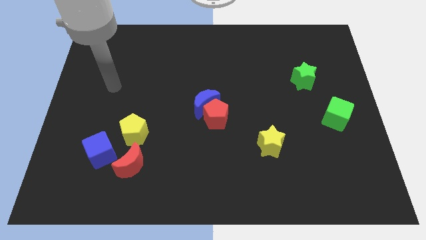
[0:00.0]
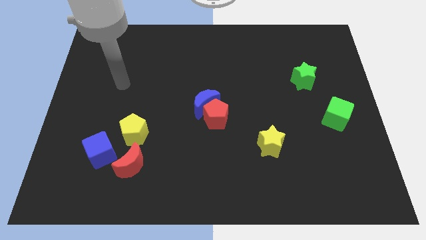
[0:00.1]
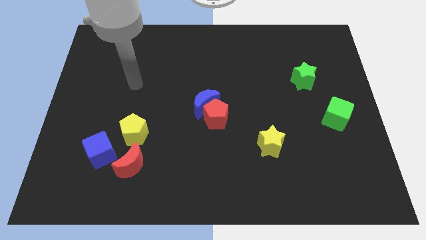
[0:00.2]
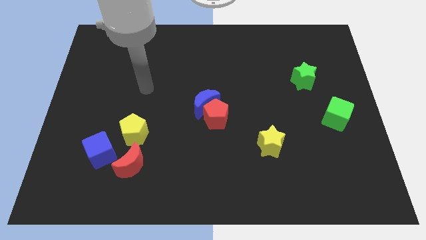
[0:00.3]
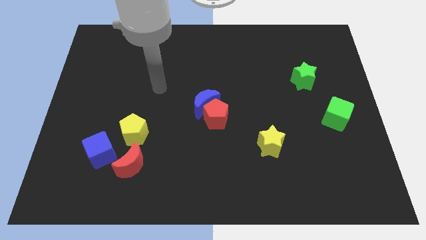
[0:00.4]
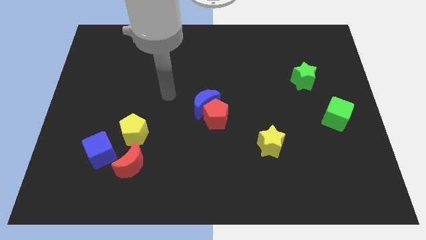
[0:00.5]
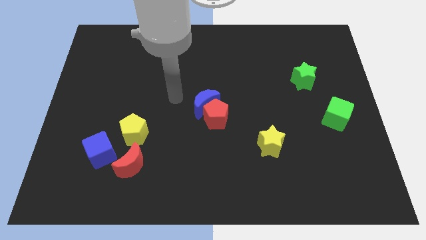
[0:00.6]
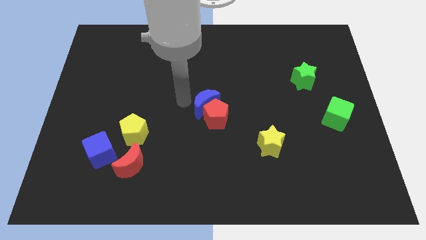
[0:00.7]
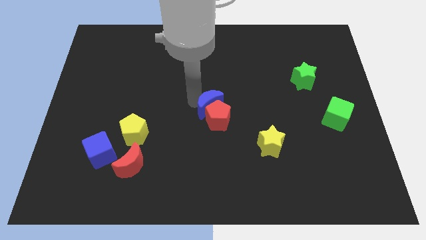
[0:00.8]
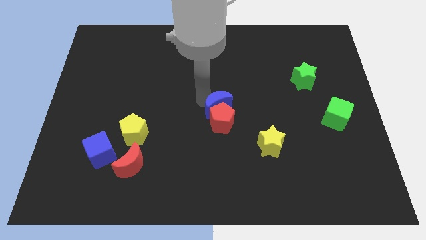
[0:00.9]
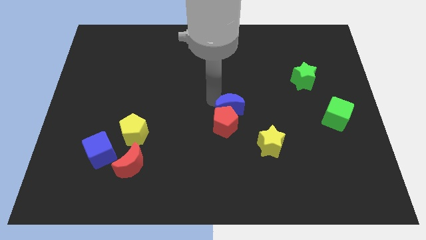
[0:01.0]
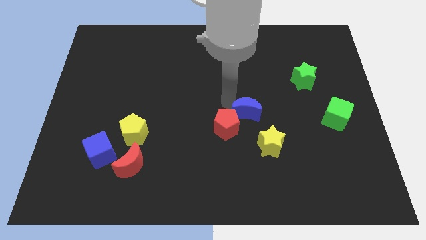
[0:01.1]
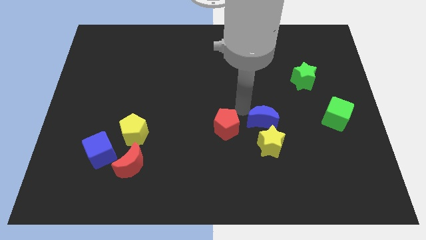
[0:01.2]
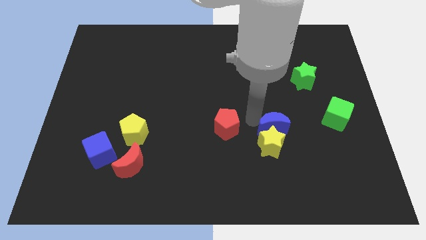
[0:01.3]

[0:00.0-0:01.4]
pull the red pentagon apart from the blue moon

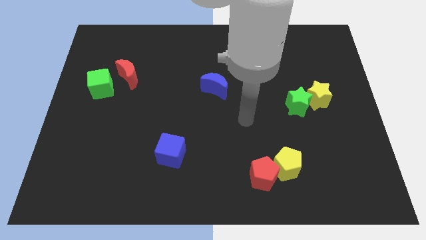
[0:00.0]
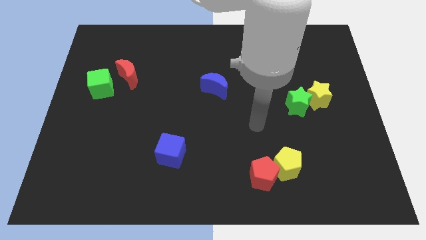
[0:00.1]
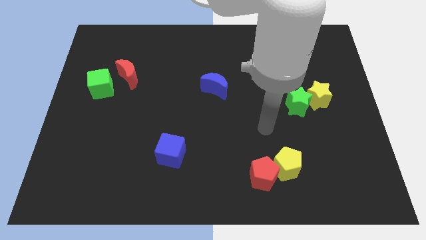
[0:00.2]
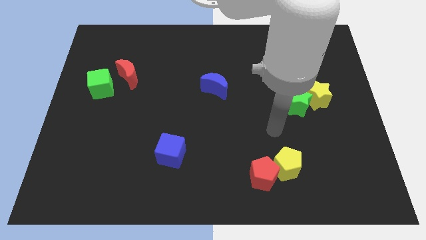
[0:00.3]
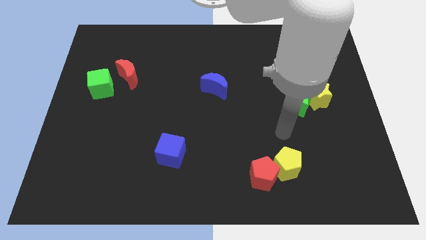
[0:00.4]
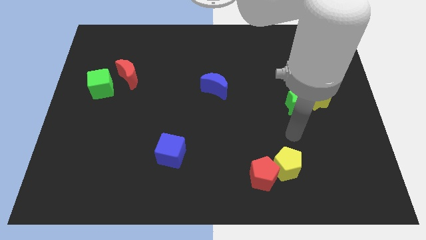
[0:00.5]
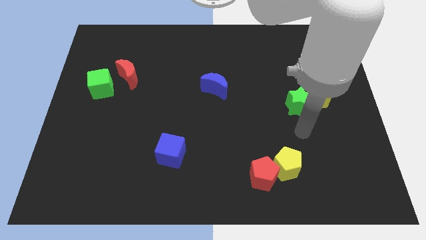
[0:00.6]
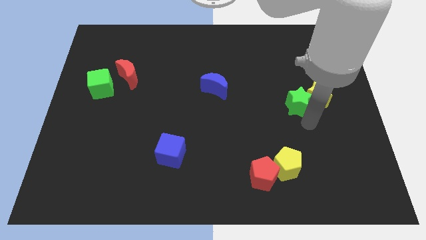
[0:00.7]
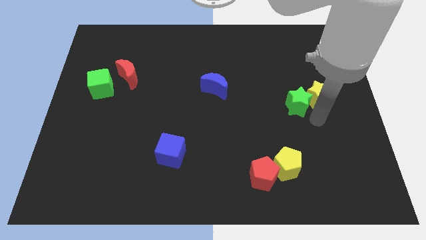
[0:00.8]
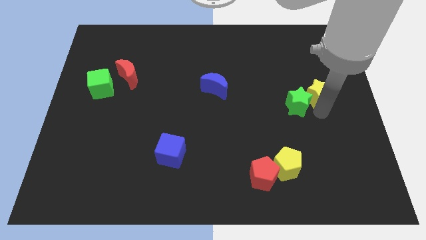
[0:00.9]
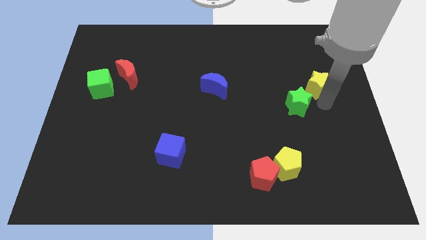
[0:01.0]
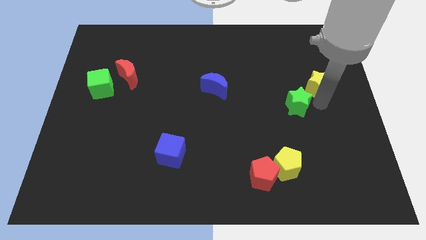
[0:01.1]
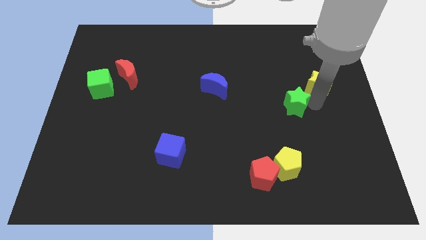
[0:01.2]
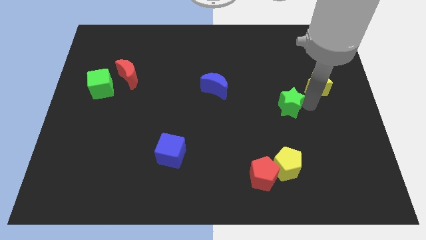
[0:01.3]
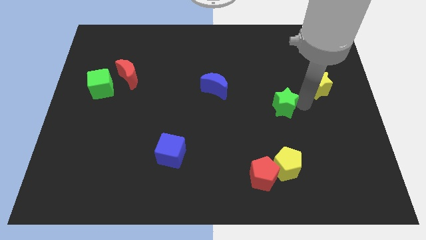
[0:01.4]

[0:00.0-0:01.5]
pull the green star apart from the yellow star

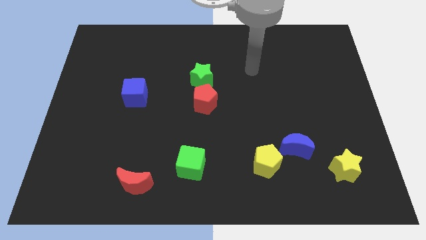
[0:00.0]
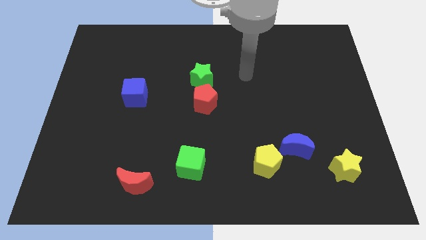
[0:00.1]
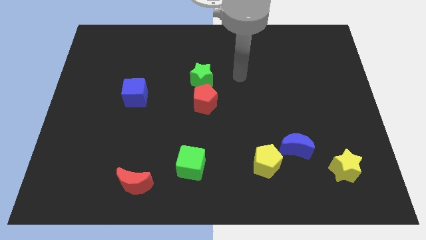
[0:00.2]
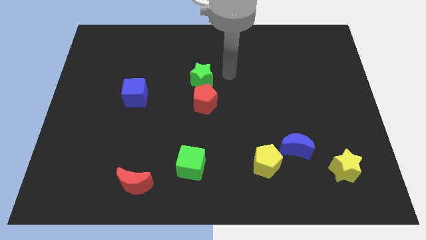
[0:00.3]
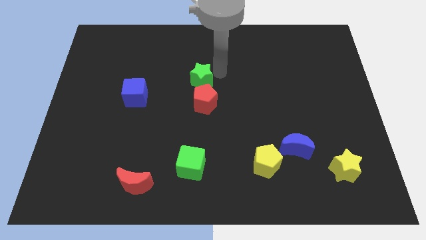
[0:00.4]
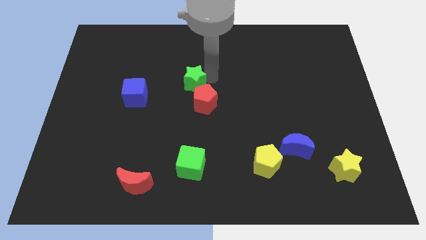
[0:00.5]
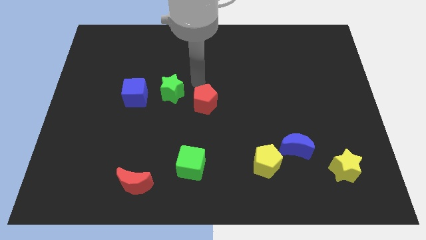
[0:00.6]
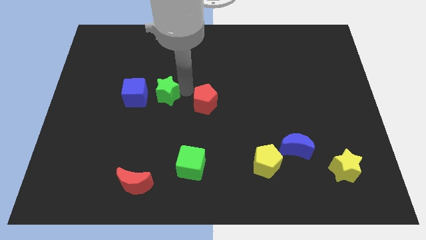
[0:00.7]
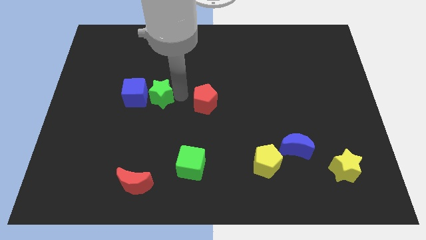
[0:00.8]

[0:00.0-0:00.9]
separate the red pentagon from the green star

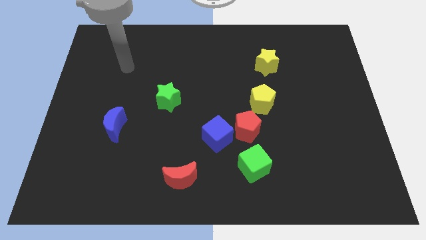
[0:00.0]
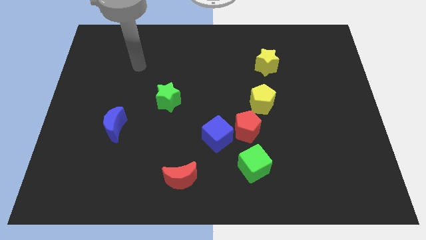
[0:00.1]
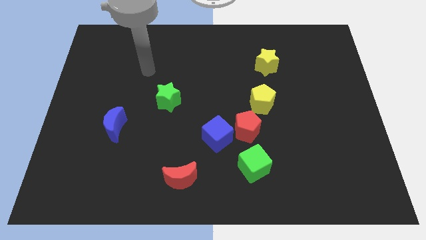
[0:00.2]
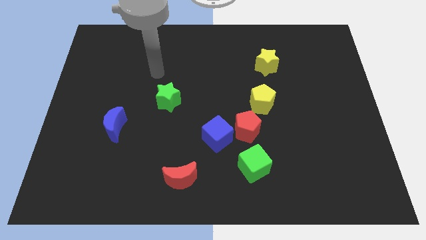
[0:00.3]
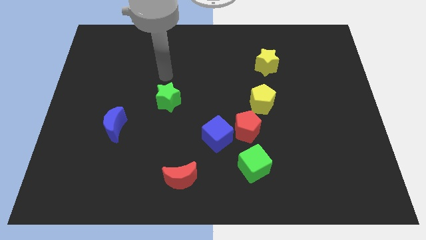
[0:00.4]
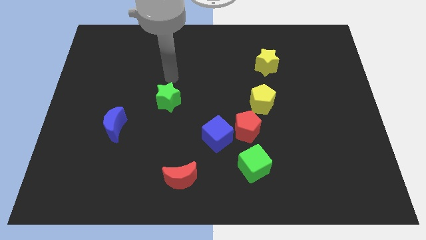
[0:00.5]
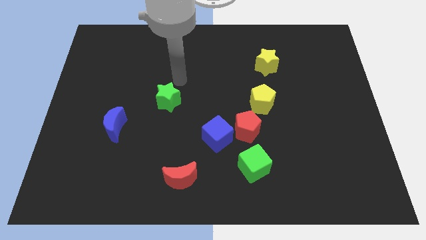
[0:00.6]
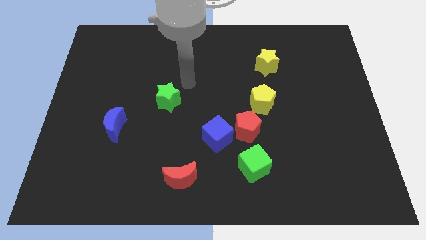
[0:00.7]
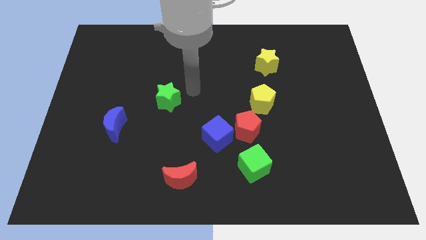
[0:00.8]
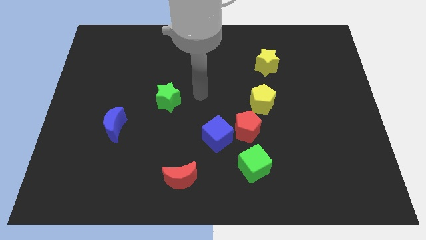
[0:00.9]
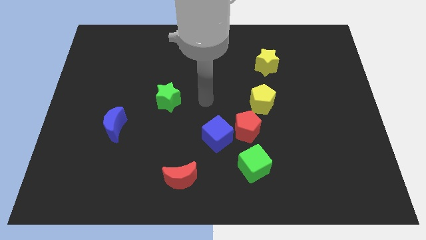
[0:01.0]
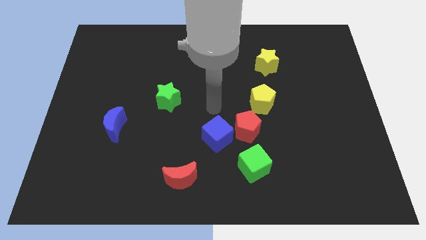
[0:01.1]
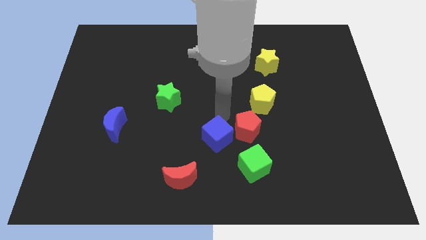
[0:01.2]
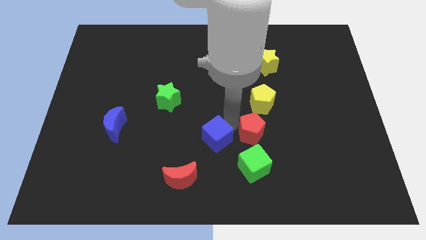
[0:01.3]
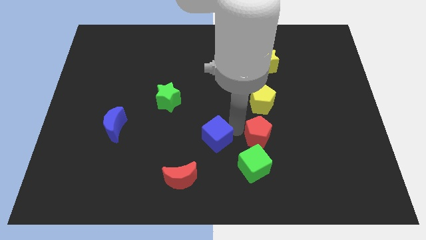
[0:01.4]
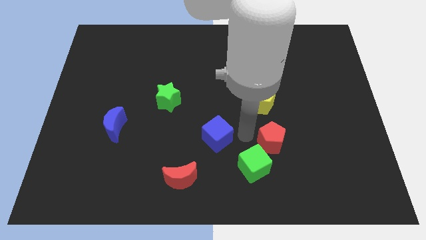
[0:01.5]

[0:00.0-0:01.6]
pull the blue cube apart from the red pentagon

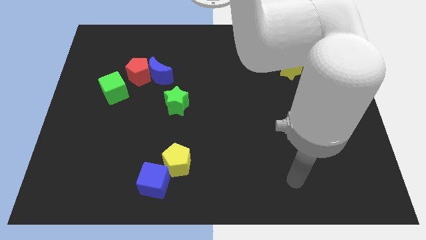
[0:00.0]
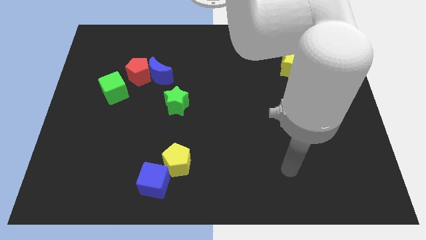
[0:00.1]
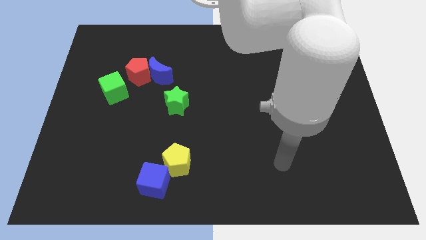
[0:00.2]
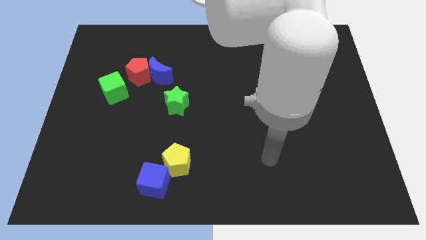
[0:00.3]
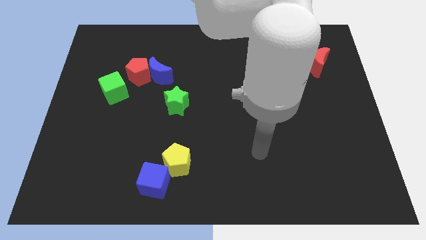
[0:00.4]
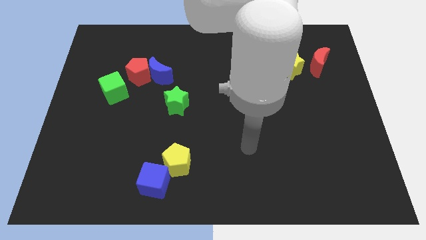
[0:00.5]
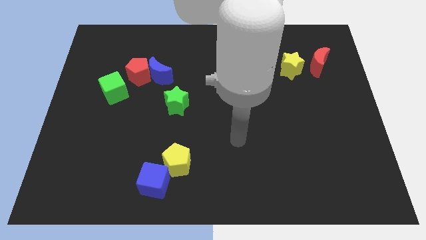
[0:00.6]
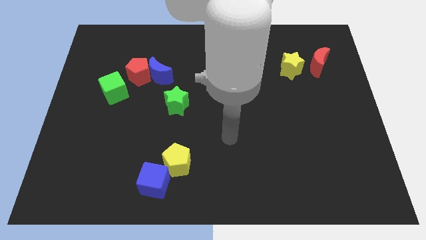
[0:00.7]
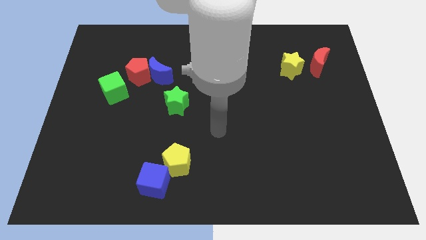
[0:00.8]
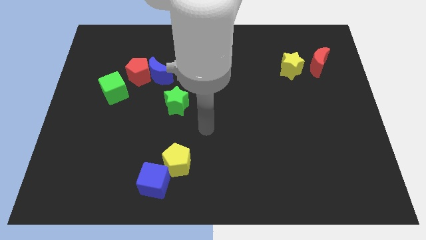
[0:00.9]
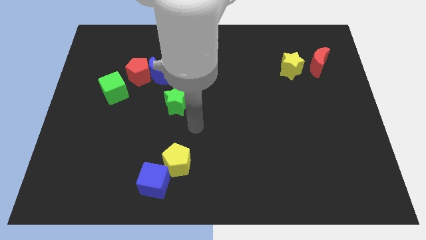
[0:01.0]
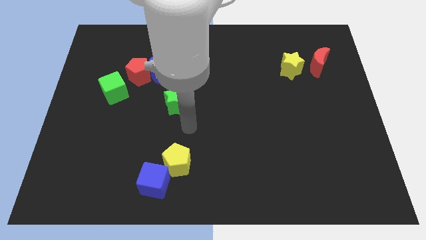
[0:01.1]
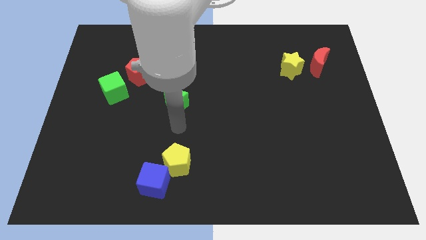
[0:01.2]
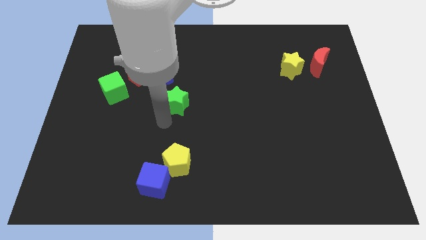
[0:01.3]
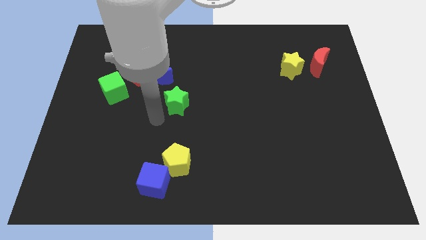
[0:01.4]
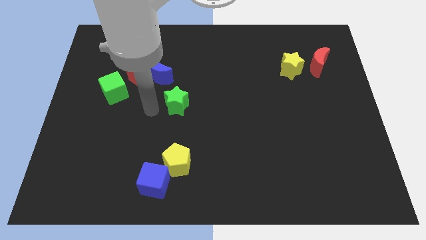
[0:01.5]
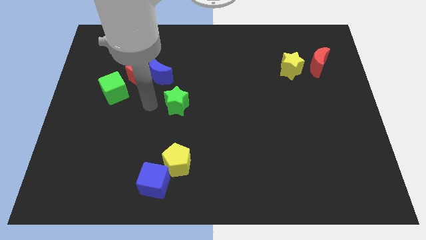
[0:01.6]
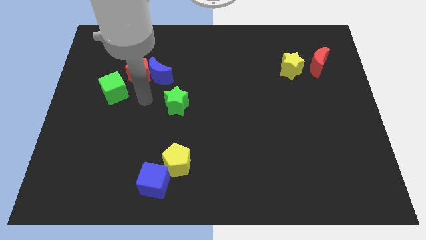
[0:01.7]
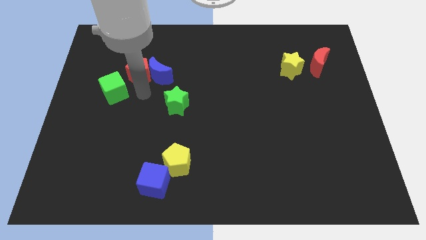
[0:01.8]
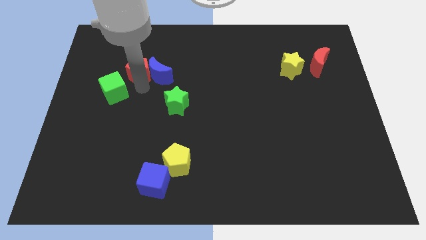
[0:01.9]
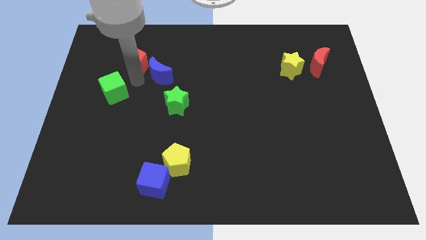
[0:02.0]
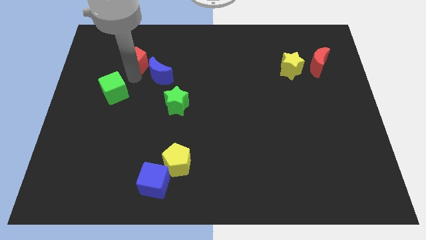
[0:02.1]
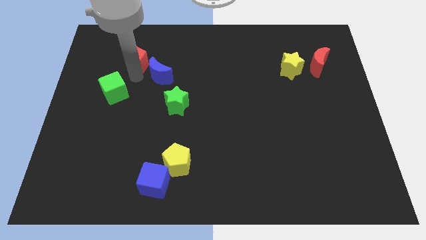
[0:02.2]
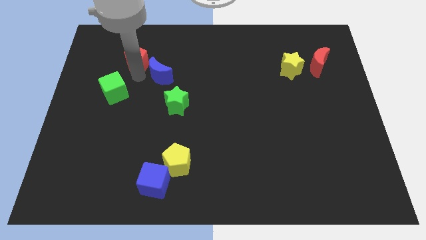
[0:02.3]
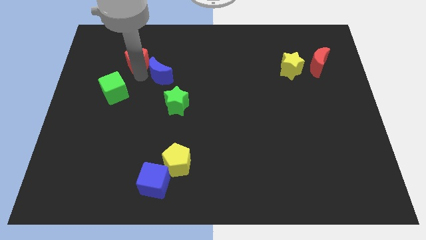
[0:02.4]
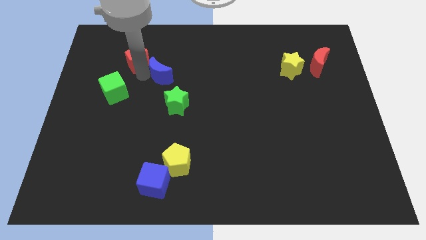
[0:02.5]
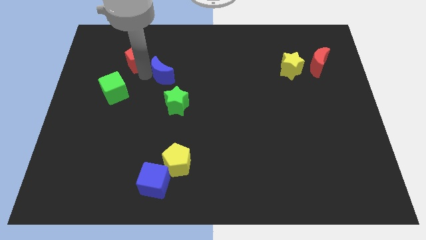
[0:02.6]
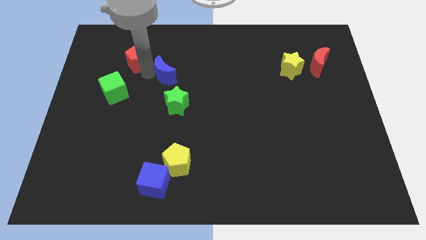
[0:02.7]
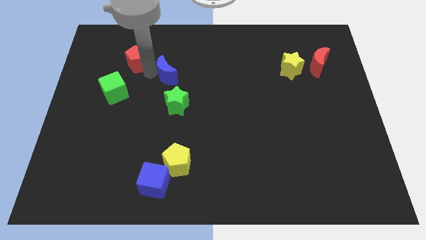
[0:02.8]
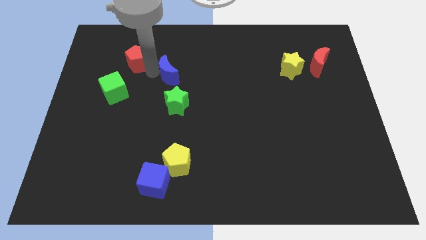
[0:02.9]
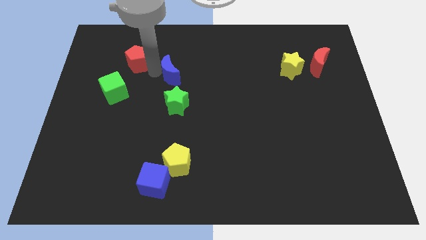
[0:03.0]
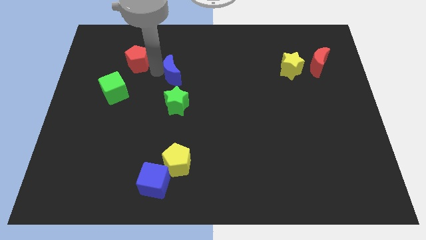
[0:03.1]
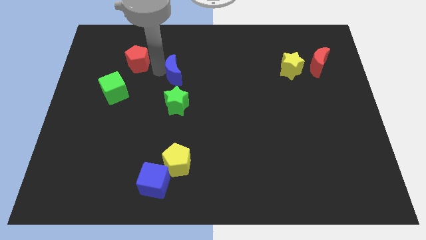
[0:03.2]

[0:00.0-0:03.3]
separate the blue moon from the red pentagon

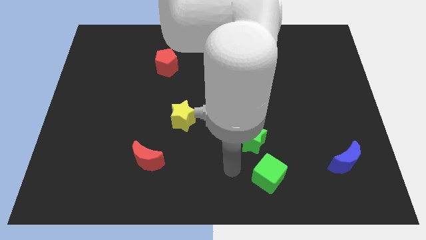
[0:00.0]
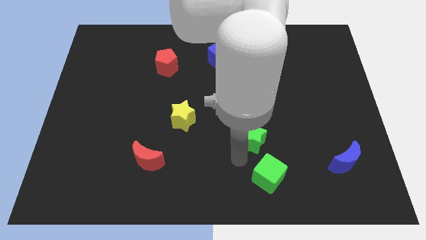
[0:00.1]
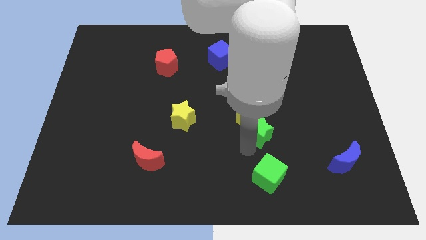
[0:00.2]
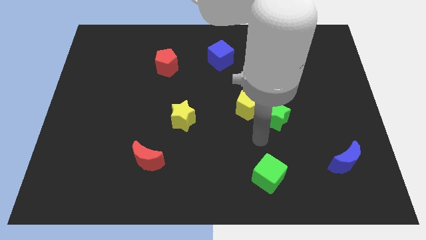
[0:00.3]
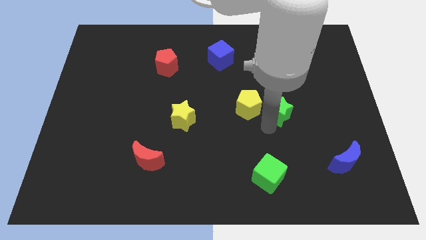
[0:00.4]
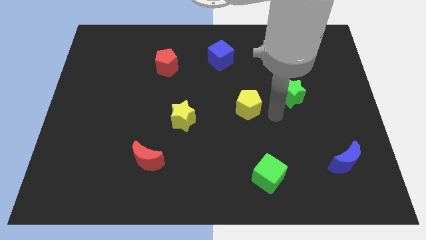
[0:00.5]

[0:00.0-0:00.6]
pull the yellow pentagon apart from the green star

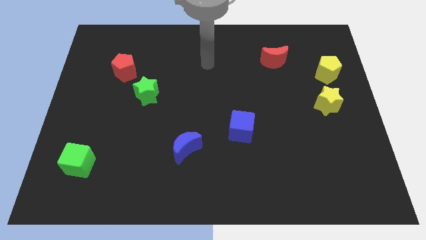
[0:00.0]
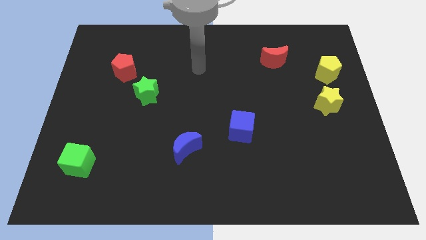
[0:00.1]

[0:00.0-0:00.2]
pull the red pentagon apart from the green star
